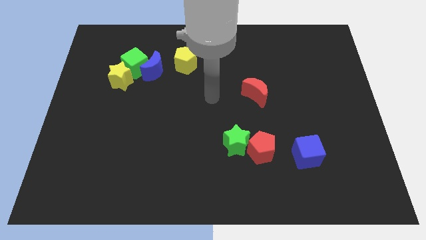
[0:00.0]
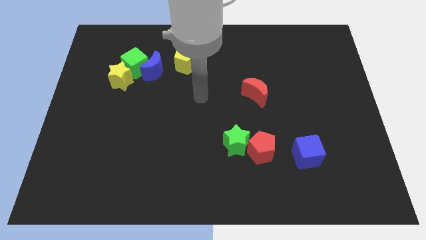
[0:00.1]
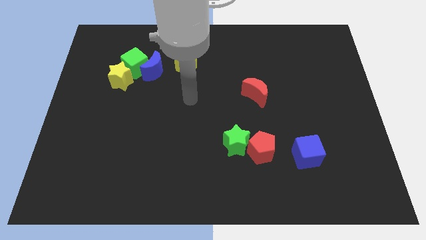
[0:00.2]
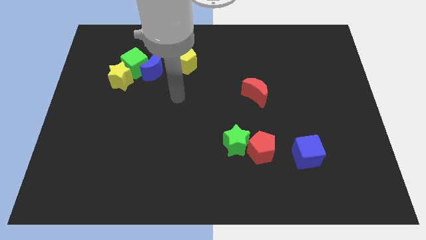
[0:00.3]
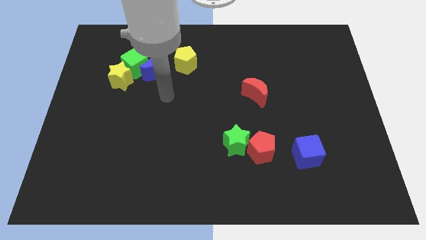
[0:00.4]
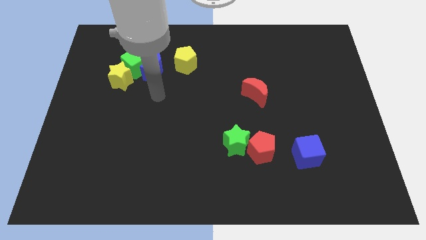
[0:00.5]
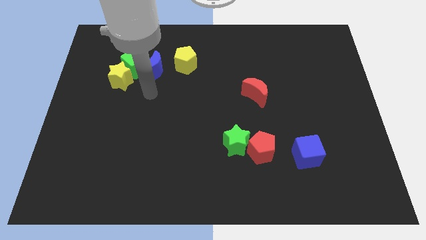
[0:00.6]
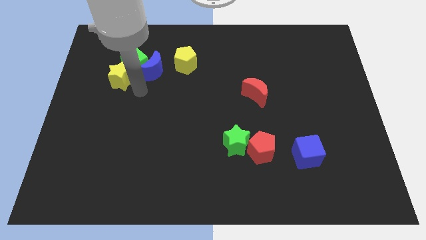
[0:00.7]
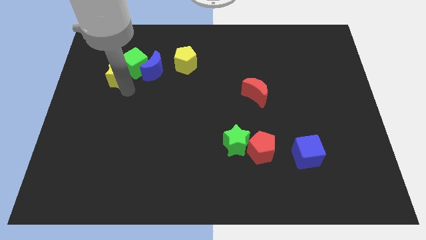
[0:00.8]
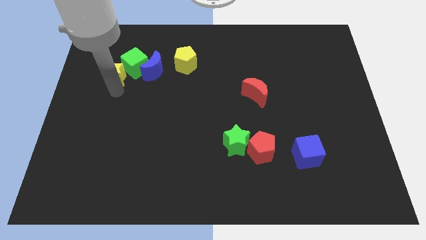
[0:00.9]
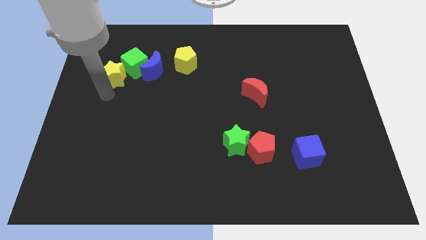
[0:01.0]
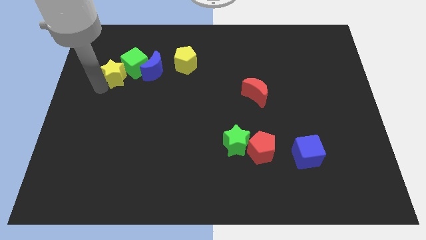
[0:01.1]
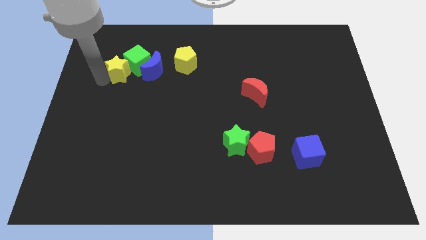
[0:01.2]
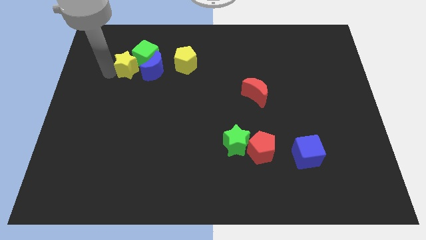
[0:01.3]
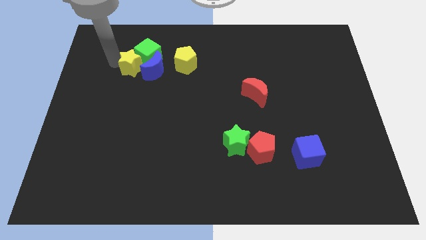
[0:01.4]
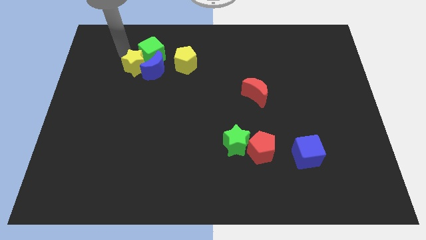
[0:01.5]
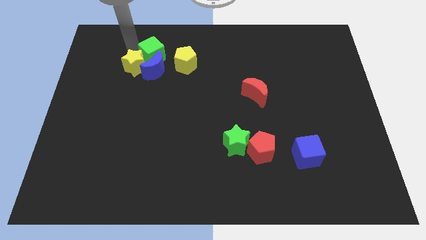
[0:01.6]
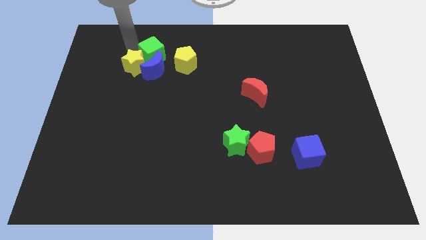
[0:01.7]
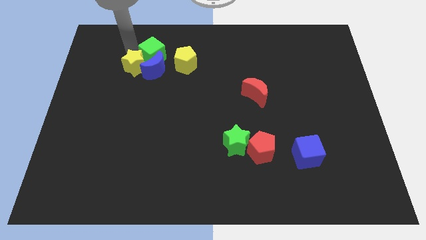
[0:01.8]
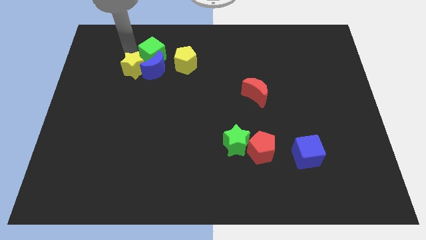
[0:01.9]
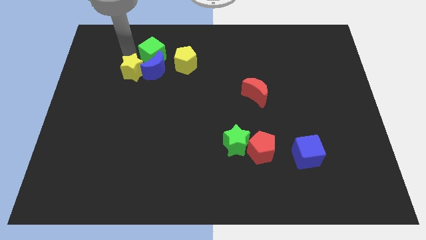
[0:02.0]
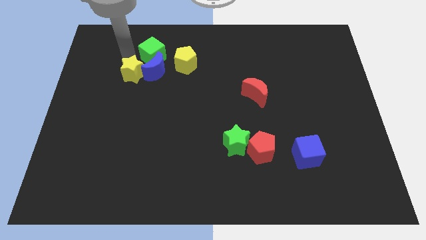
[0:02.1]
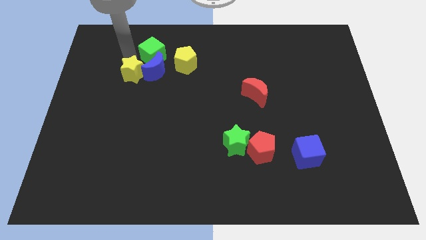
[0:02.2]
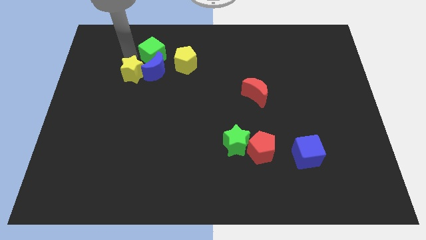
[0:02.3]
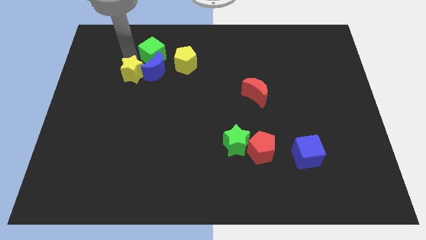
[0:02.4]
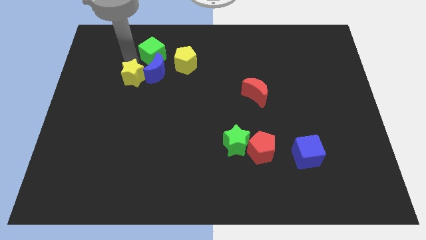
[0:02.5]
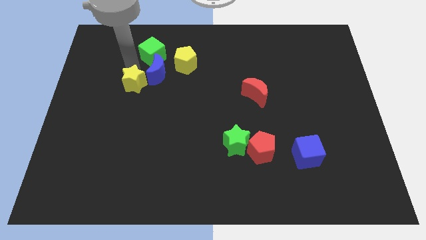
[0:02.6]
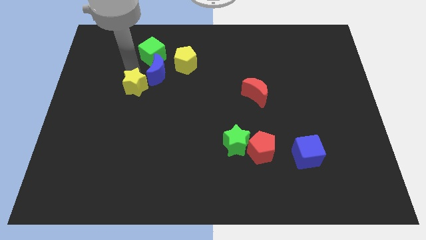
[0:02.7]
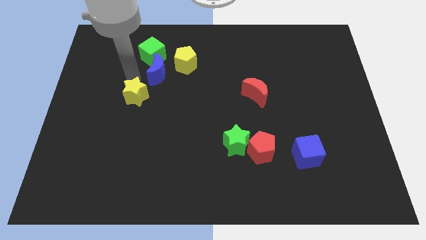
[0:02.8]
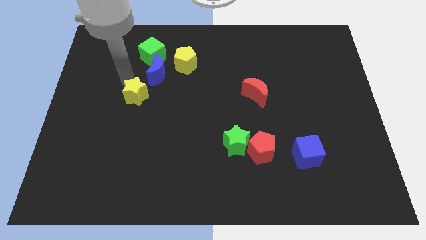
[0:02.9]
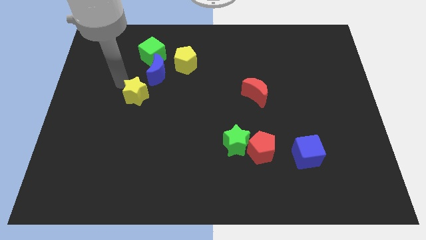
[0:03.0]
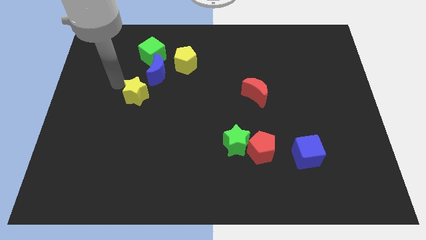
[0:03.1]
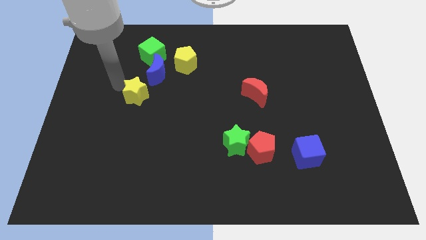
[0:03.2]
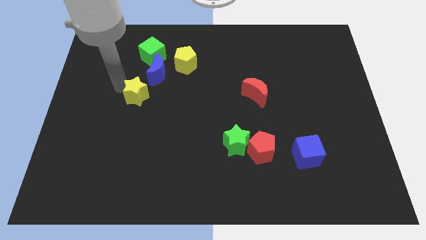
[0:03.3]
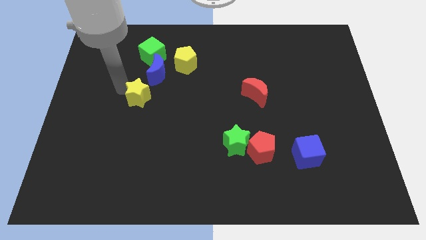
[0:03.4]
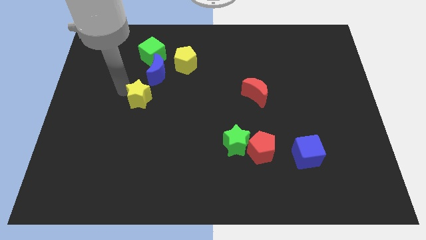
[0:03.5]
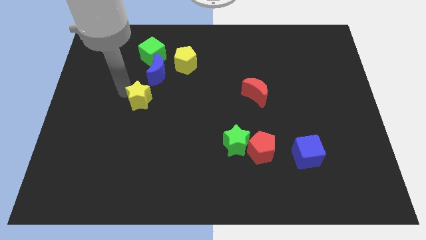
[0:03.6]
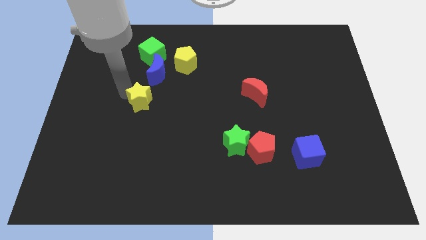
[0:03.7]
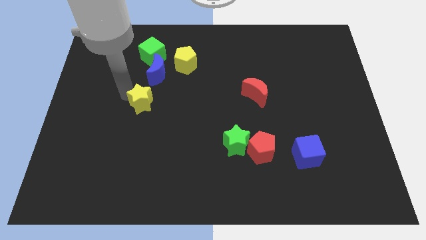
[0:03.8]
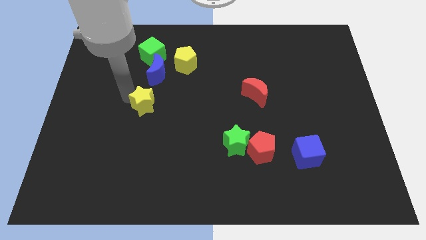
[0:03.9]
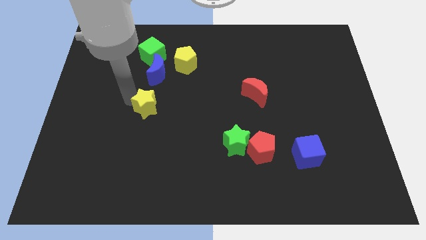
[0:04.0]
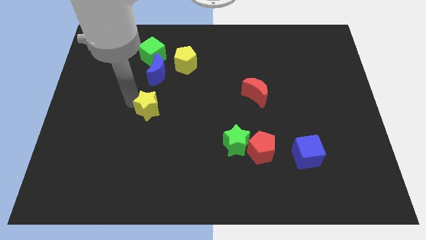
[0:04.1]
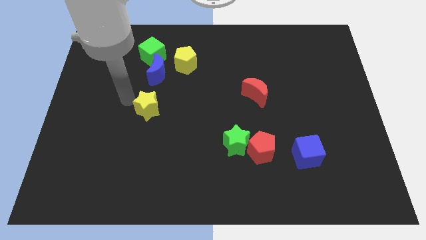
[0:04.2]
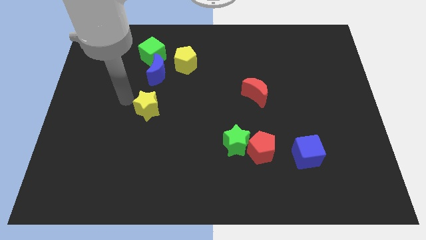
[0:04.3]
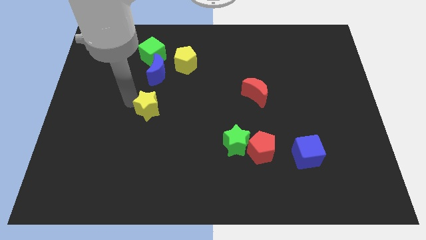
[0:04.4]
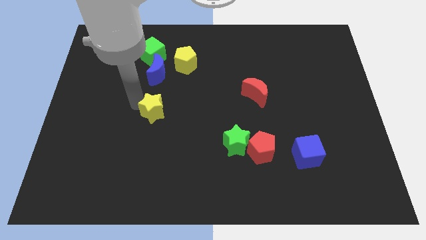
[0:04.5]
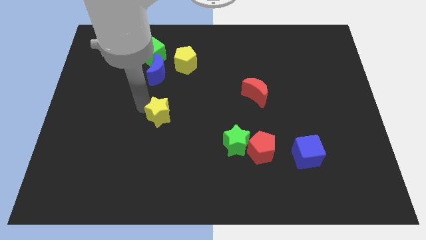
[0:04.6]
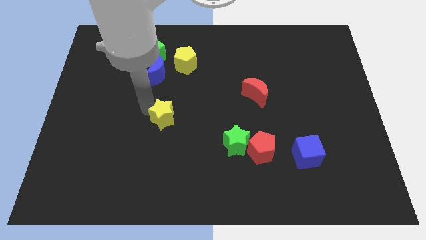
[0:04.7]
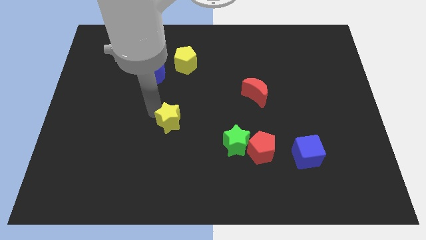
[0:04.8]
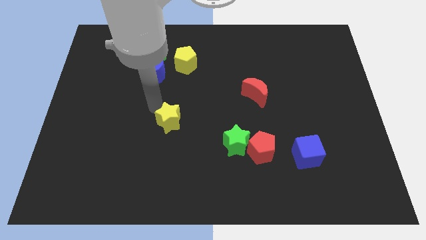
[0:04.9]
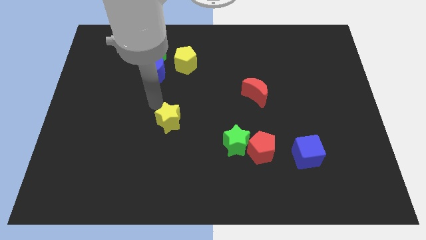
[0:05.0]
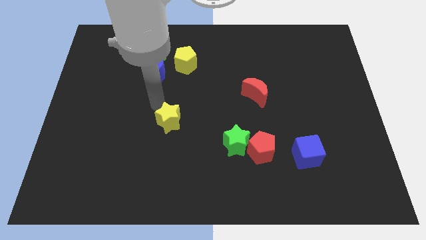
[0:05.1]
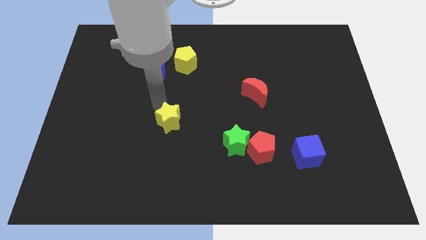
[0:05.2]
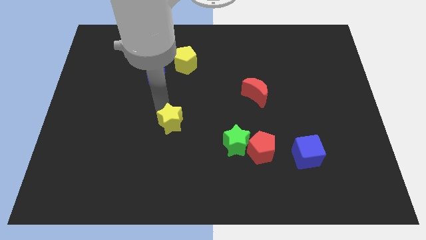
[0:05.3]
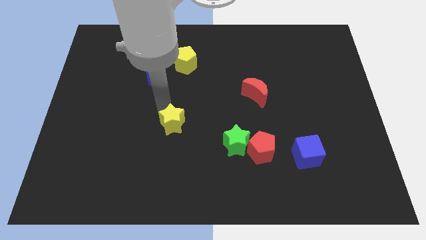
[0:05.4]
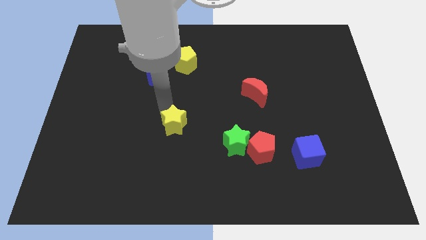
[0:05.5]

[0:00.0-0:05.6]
push the yellow star down and right diagonally

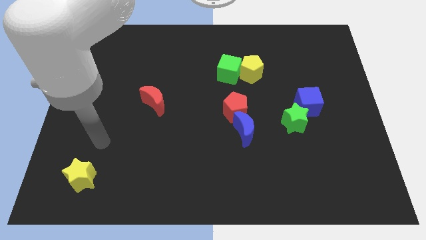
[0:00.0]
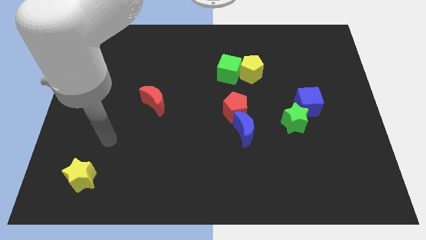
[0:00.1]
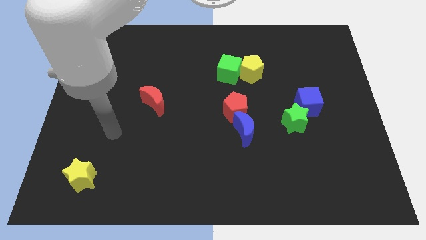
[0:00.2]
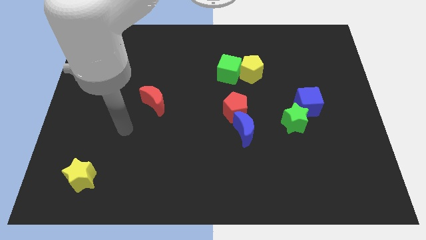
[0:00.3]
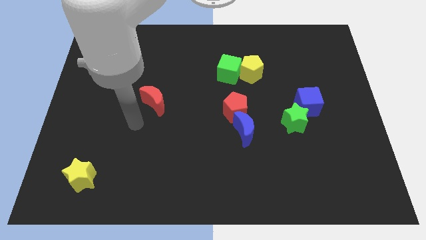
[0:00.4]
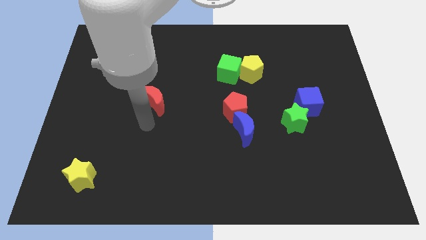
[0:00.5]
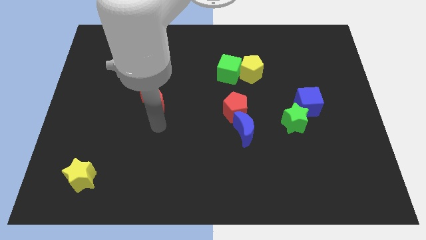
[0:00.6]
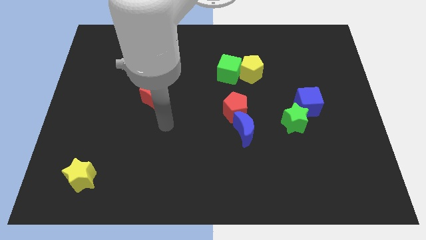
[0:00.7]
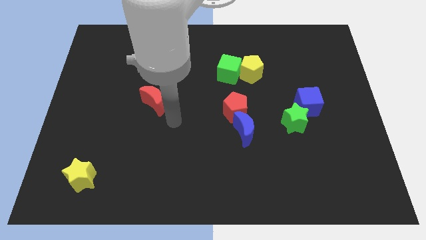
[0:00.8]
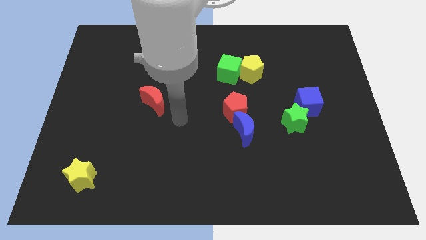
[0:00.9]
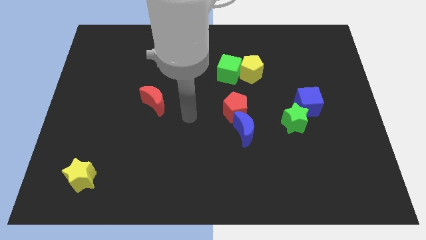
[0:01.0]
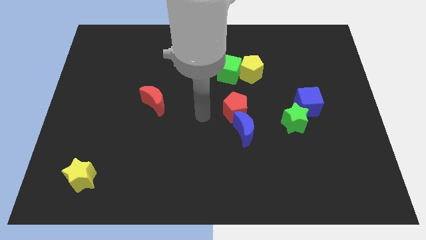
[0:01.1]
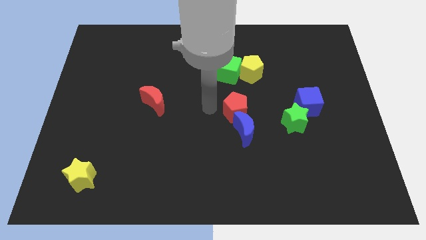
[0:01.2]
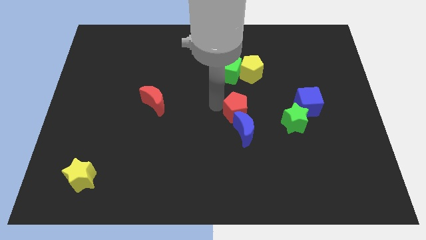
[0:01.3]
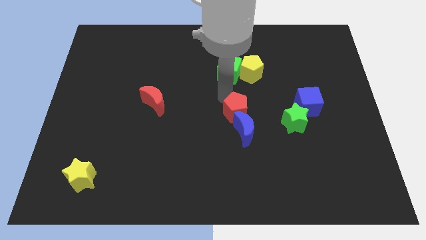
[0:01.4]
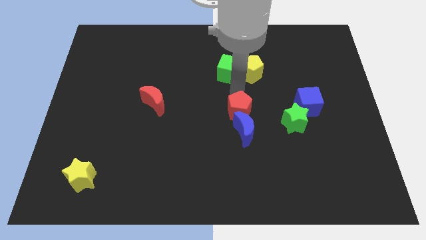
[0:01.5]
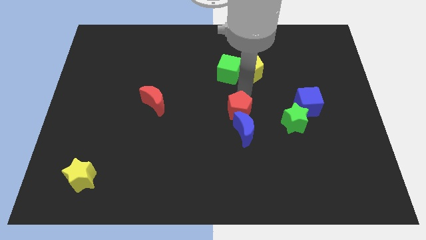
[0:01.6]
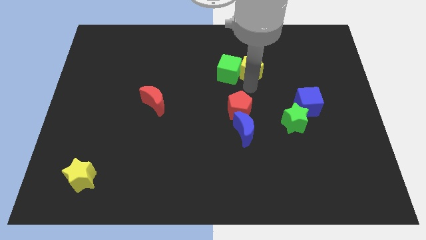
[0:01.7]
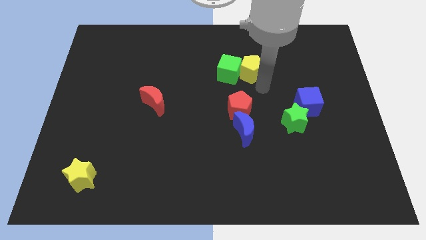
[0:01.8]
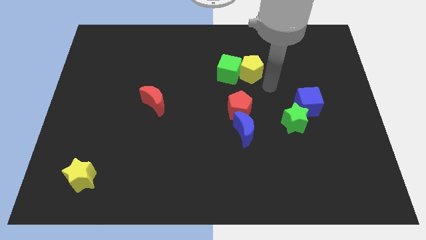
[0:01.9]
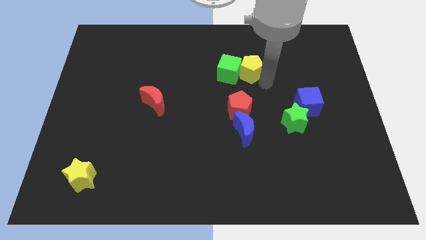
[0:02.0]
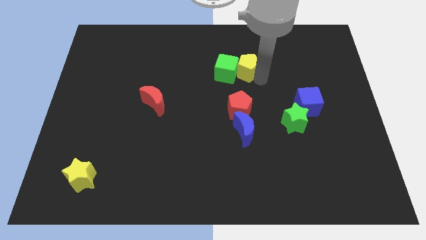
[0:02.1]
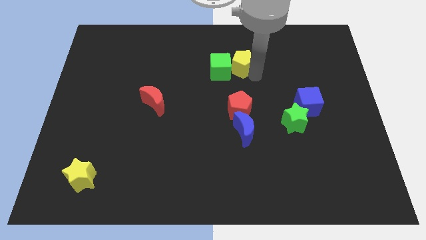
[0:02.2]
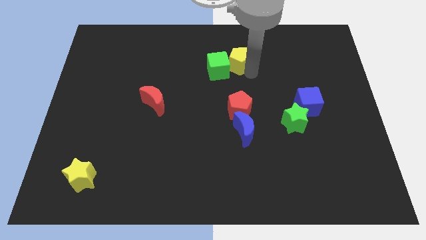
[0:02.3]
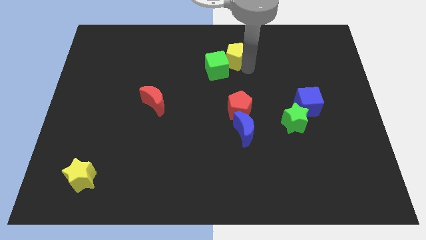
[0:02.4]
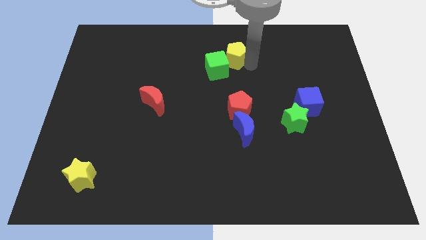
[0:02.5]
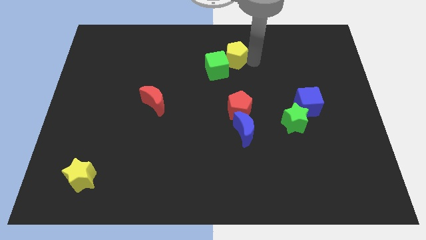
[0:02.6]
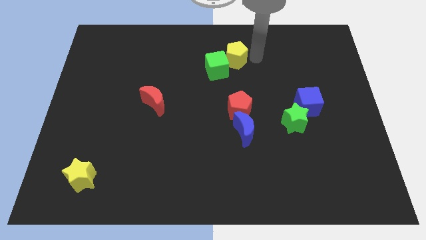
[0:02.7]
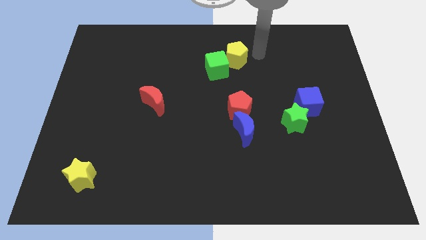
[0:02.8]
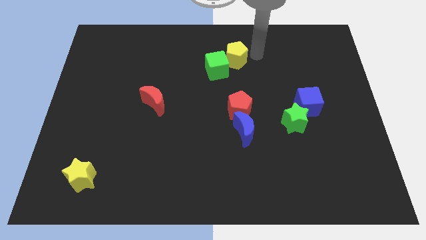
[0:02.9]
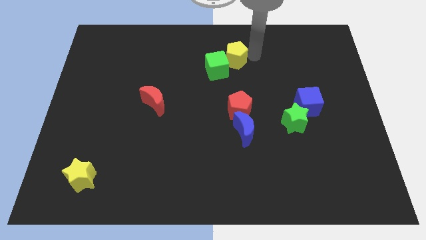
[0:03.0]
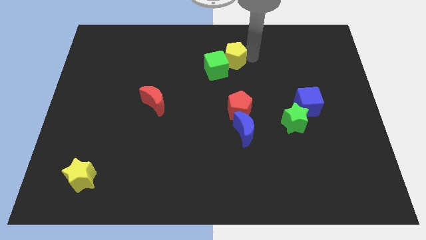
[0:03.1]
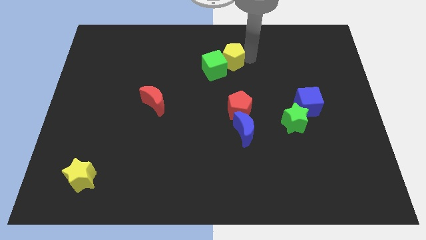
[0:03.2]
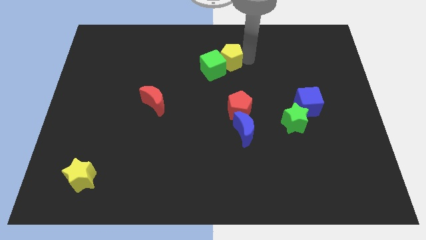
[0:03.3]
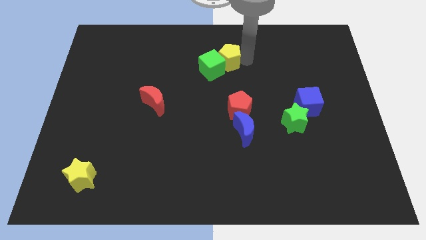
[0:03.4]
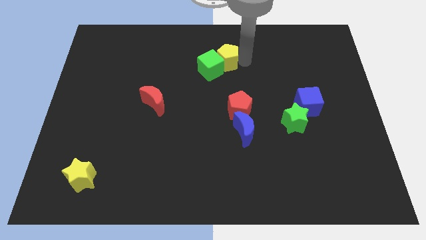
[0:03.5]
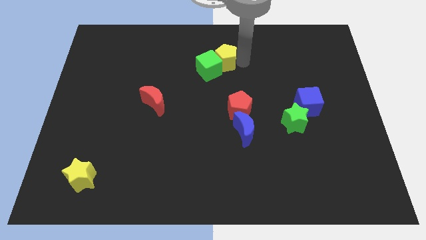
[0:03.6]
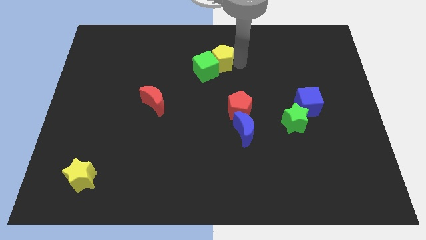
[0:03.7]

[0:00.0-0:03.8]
move the yellow pentagon a bit to the left
